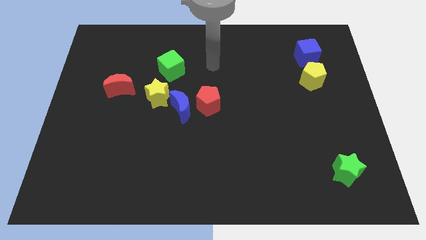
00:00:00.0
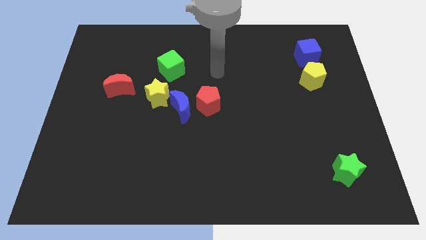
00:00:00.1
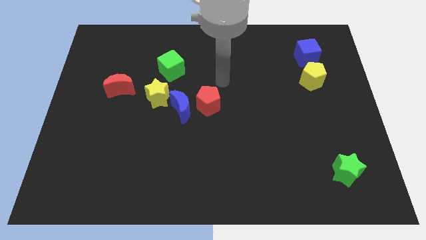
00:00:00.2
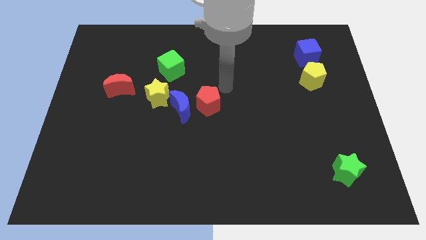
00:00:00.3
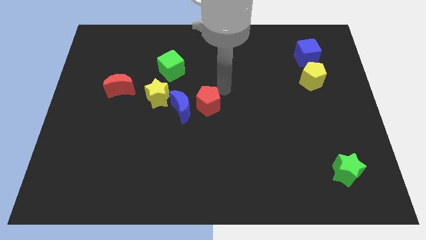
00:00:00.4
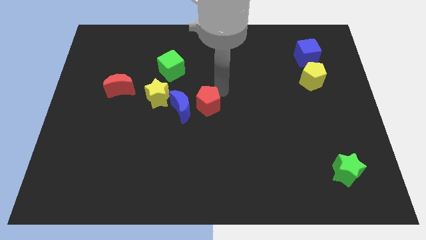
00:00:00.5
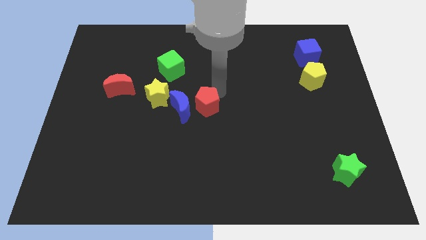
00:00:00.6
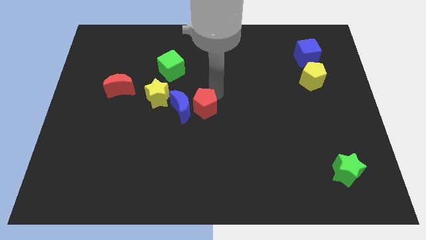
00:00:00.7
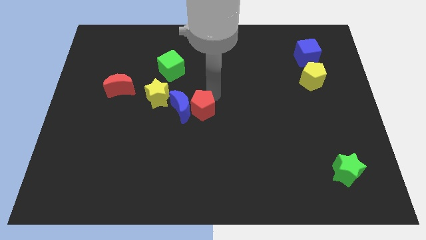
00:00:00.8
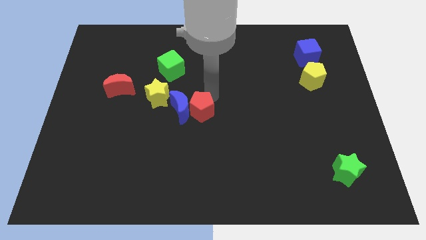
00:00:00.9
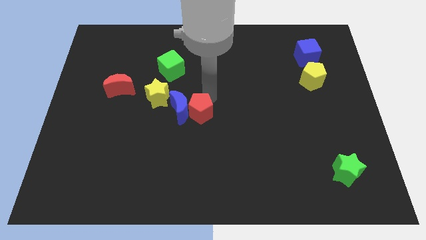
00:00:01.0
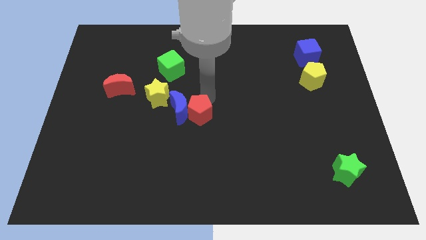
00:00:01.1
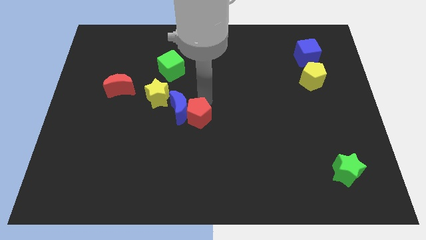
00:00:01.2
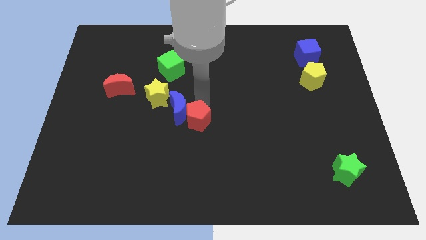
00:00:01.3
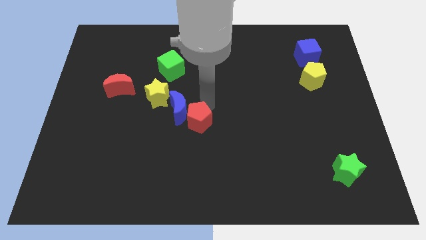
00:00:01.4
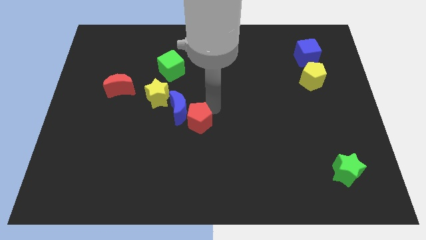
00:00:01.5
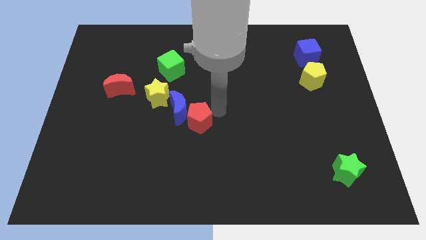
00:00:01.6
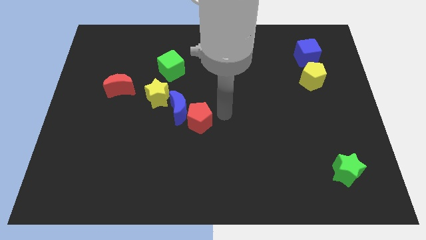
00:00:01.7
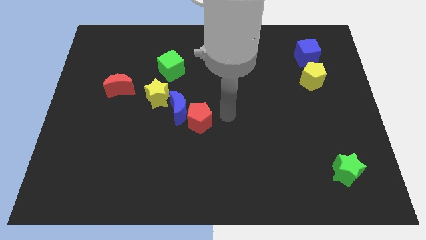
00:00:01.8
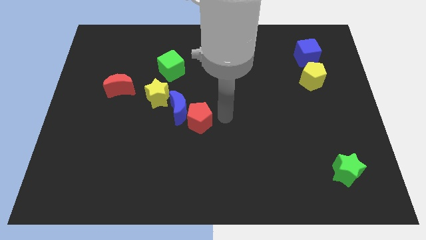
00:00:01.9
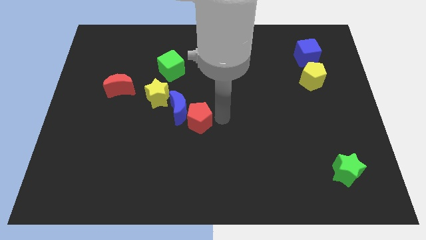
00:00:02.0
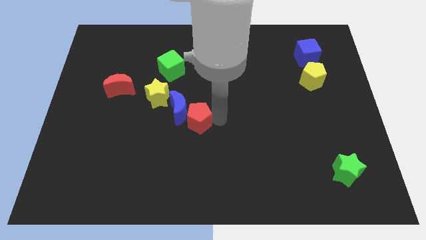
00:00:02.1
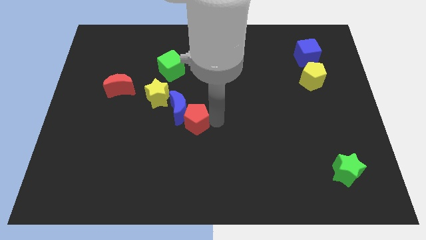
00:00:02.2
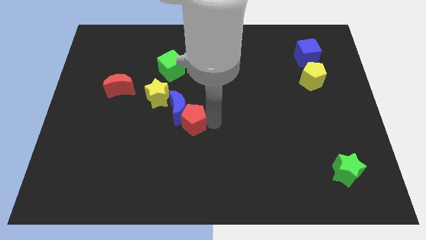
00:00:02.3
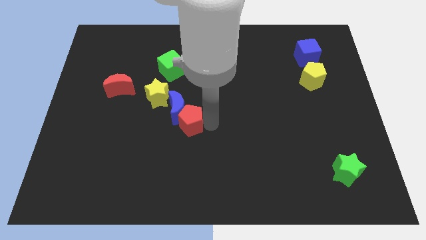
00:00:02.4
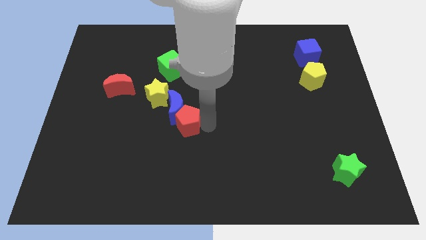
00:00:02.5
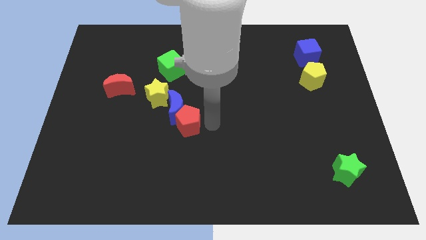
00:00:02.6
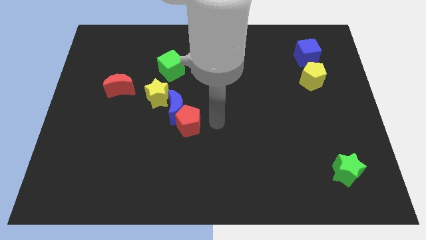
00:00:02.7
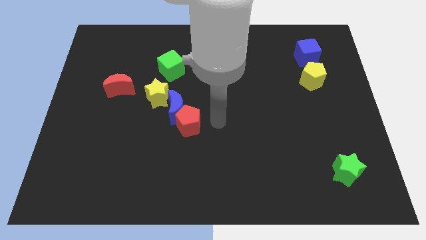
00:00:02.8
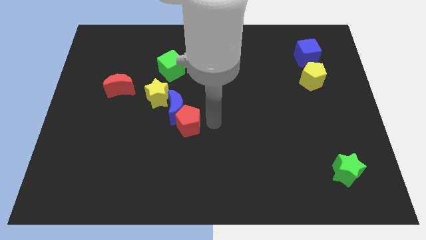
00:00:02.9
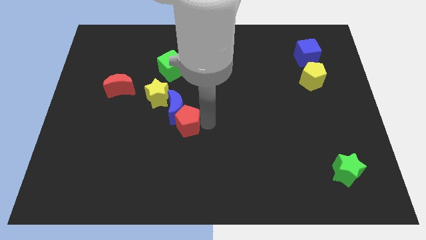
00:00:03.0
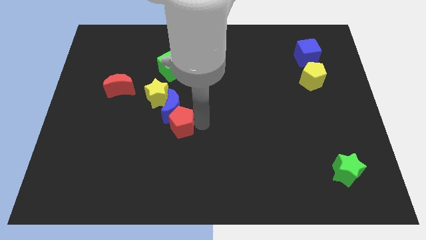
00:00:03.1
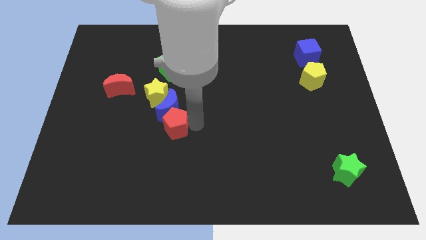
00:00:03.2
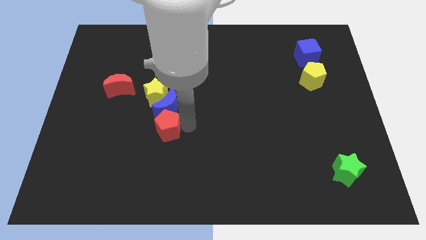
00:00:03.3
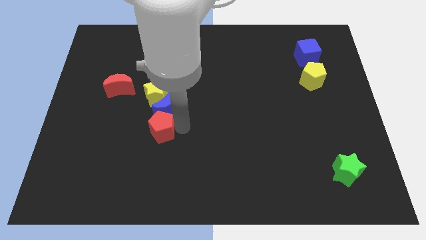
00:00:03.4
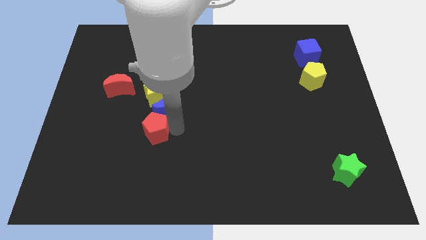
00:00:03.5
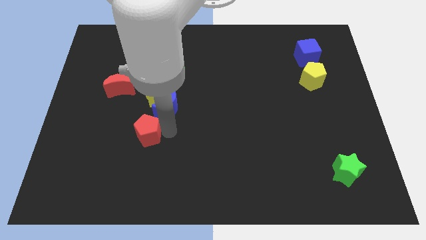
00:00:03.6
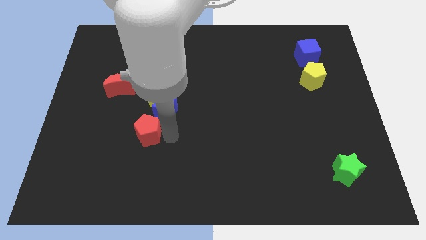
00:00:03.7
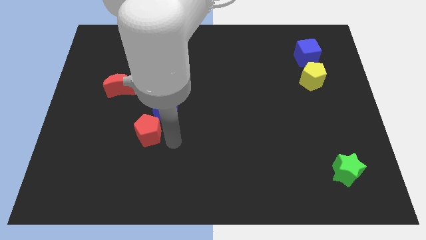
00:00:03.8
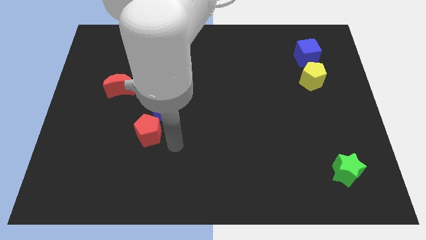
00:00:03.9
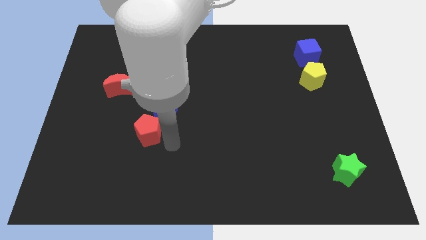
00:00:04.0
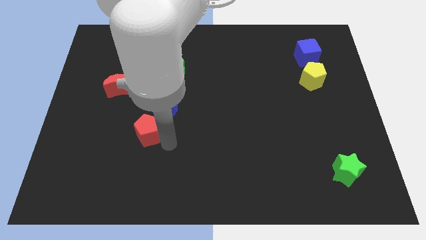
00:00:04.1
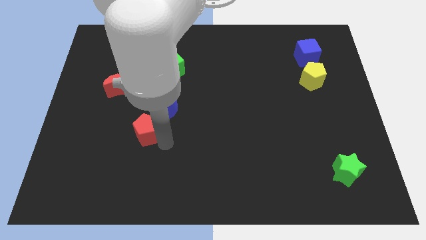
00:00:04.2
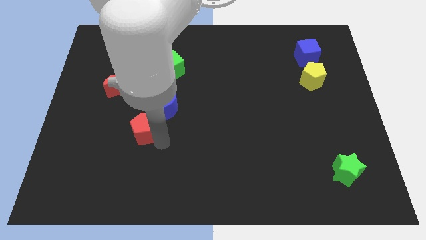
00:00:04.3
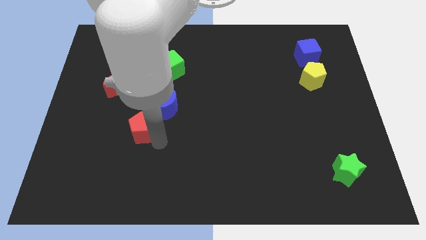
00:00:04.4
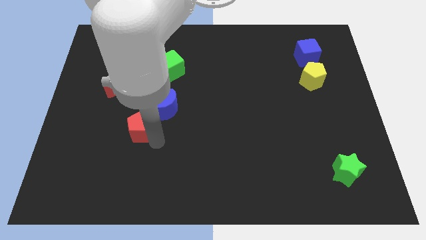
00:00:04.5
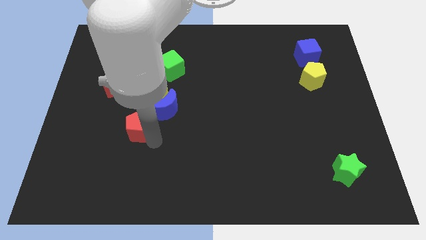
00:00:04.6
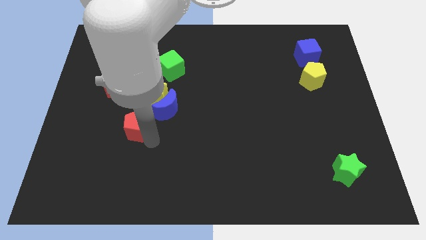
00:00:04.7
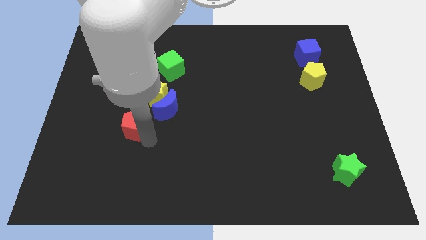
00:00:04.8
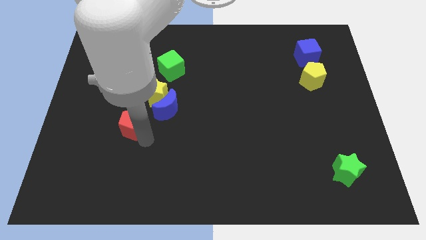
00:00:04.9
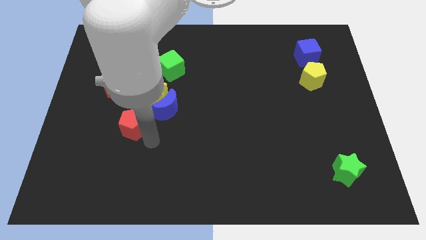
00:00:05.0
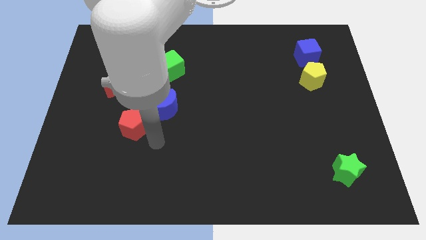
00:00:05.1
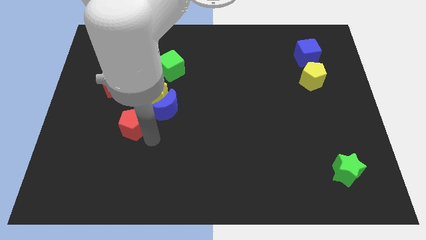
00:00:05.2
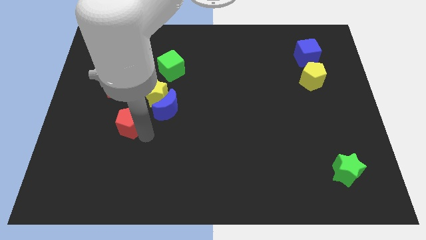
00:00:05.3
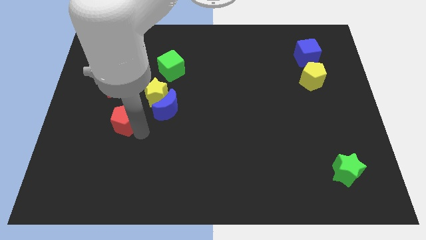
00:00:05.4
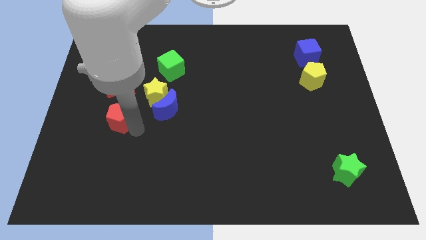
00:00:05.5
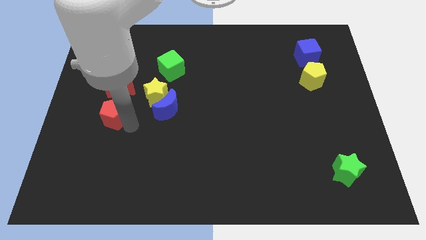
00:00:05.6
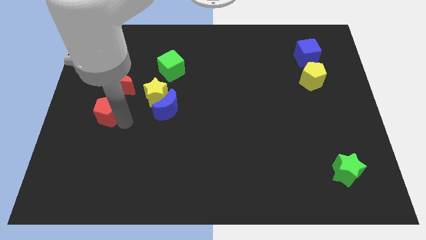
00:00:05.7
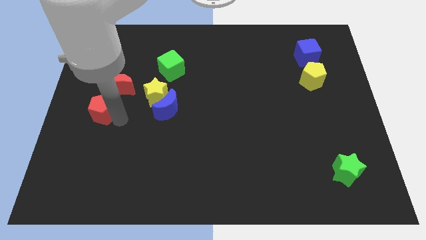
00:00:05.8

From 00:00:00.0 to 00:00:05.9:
push the red pentagon to the center left
